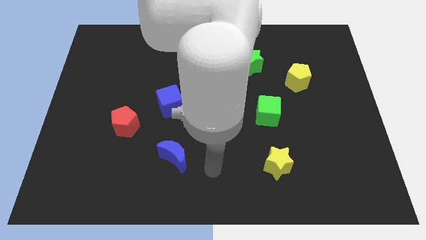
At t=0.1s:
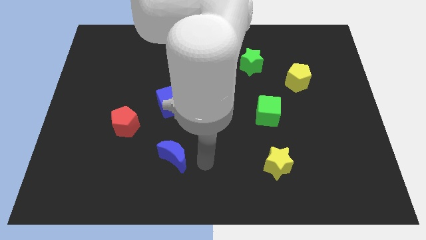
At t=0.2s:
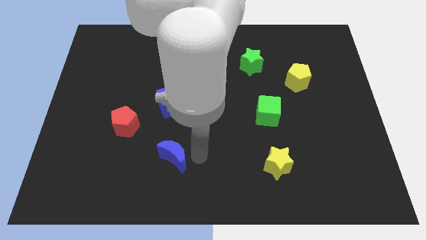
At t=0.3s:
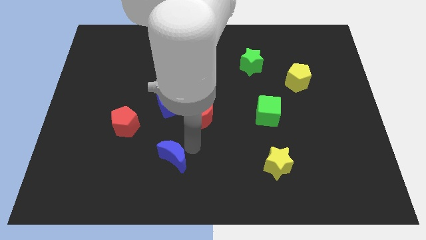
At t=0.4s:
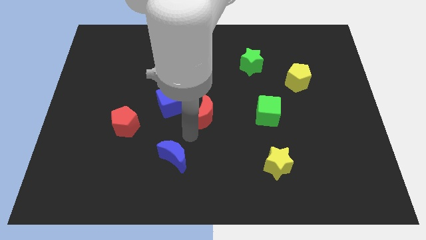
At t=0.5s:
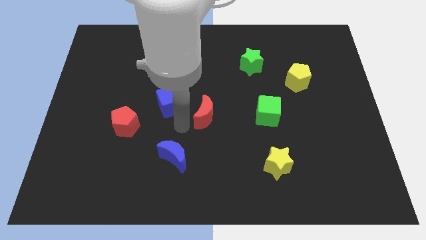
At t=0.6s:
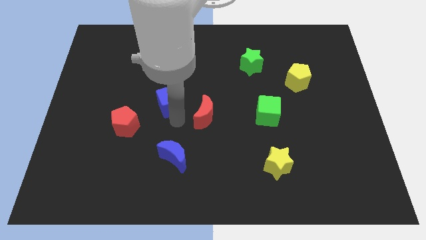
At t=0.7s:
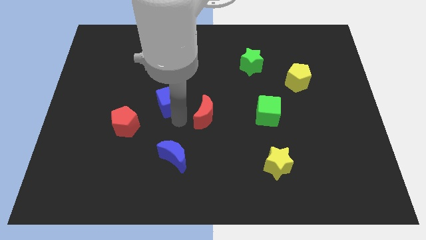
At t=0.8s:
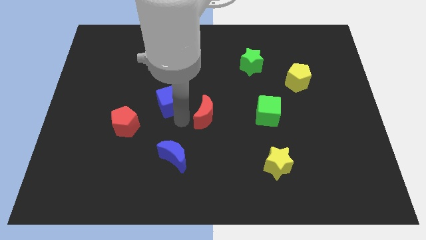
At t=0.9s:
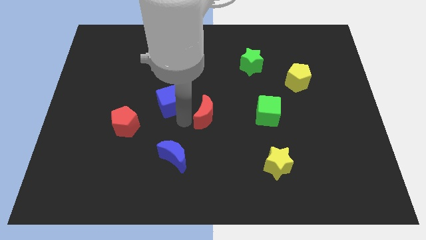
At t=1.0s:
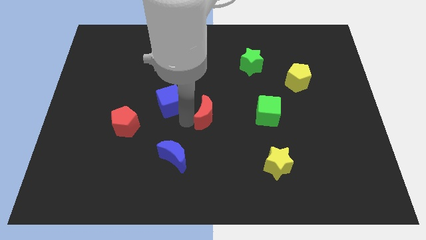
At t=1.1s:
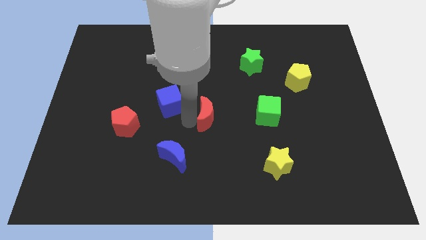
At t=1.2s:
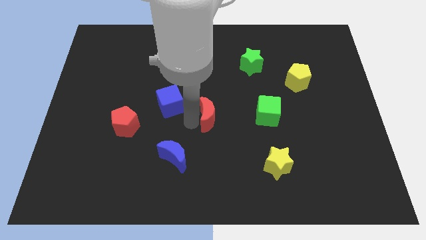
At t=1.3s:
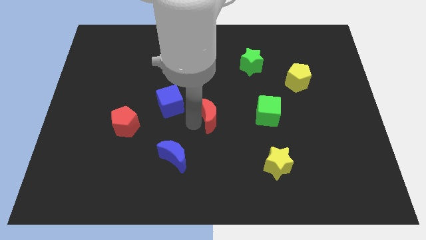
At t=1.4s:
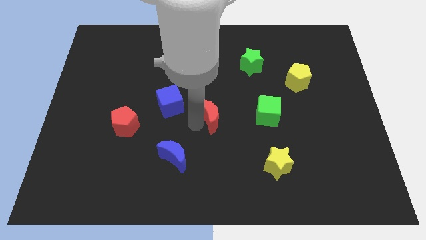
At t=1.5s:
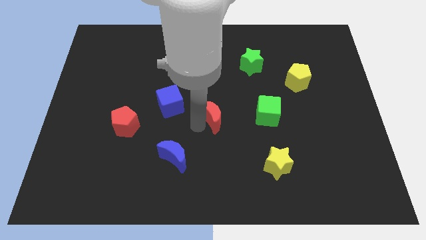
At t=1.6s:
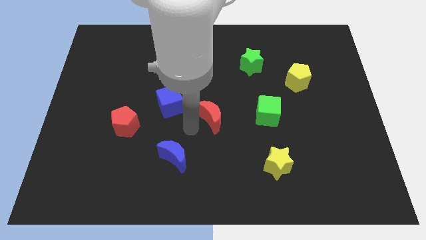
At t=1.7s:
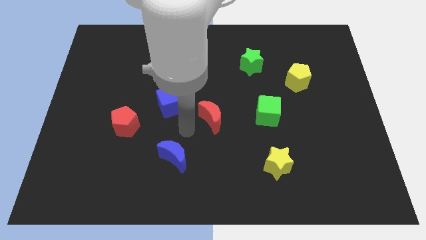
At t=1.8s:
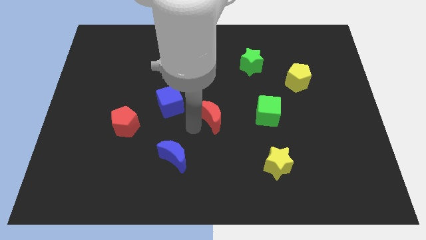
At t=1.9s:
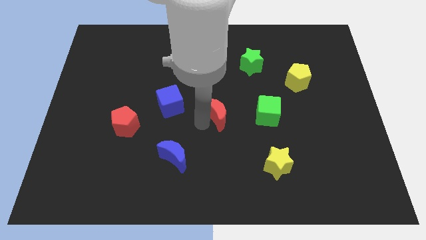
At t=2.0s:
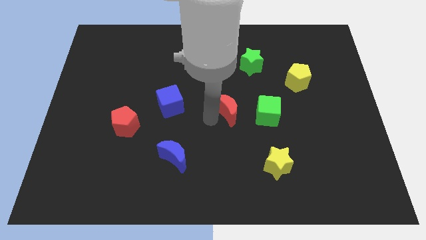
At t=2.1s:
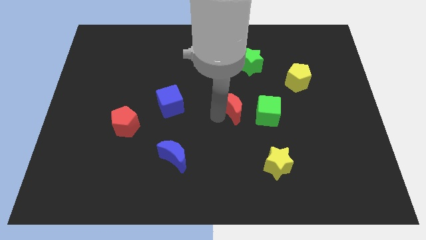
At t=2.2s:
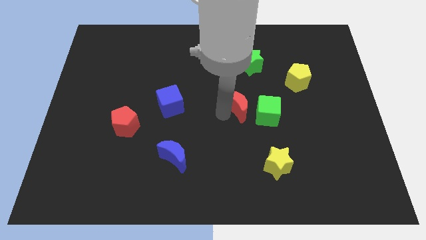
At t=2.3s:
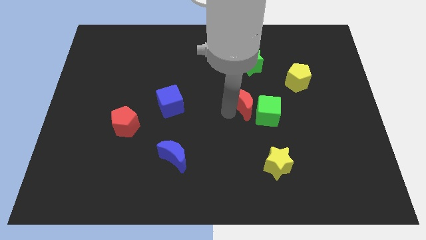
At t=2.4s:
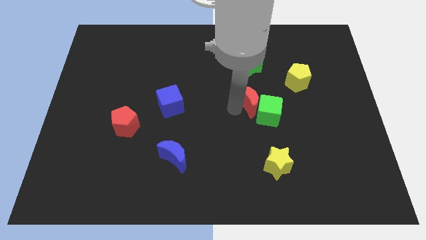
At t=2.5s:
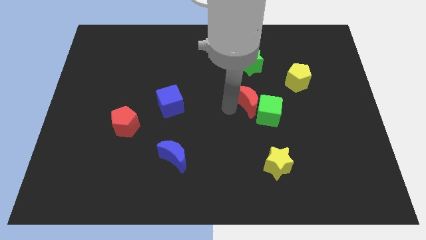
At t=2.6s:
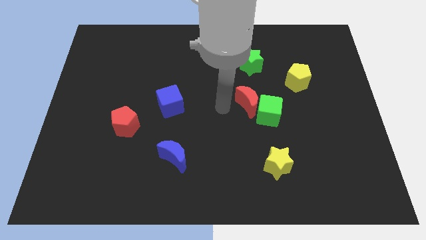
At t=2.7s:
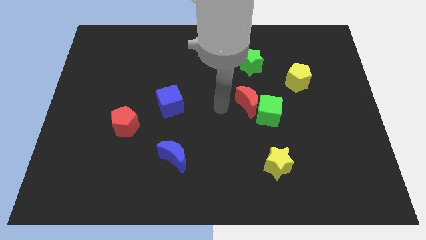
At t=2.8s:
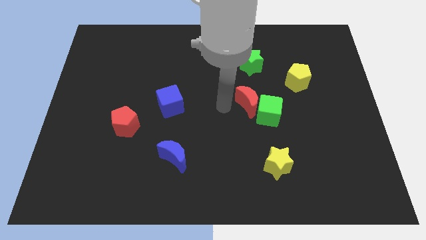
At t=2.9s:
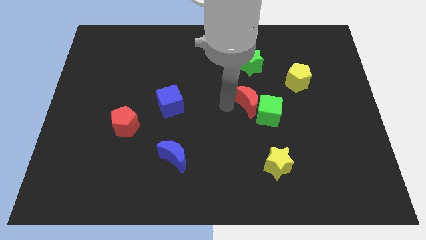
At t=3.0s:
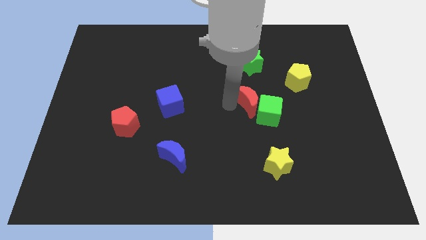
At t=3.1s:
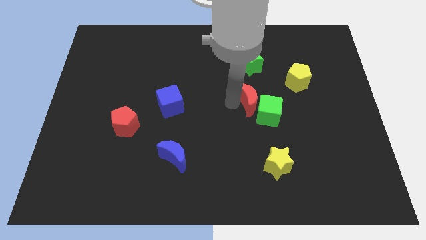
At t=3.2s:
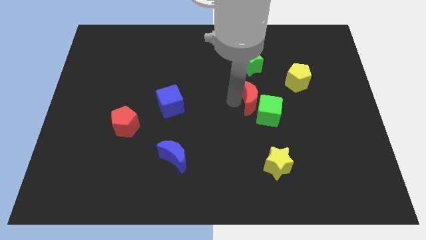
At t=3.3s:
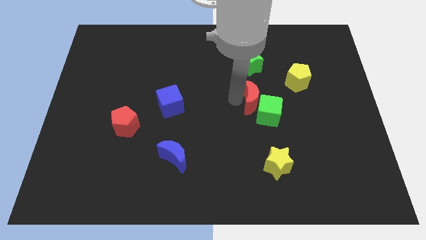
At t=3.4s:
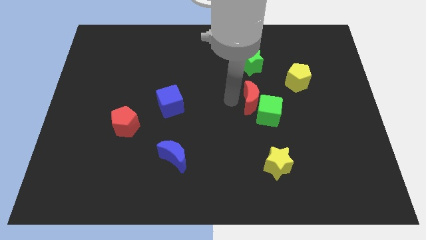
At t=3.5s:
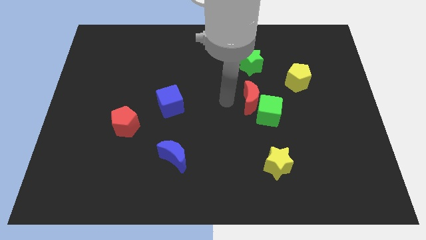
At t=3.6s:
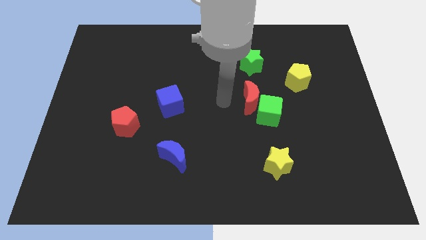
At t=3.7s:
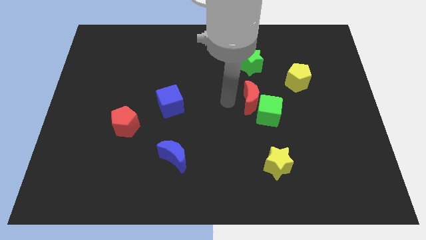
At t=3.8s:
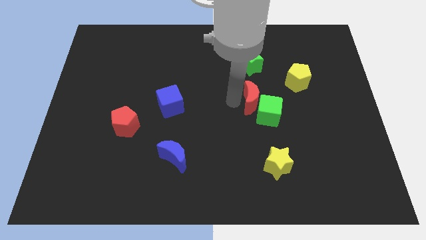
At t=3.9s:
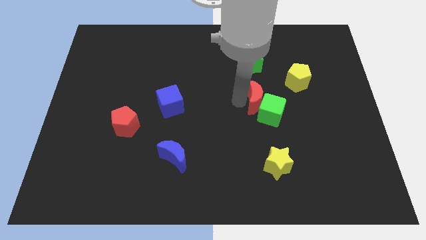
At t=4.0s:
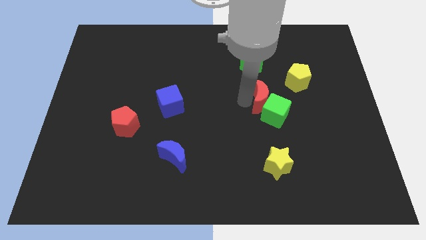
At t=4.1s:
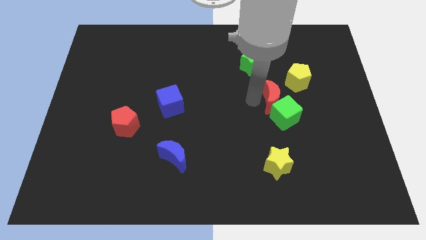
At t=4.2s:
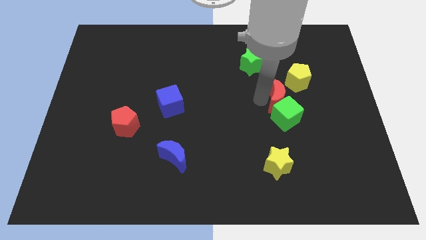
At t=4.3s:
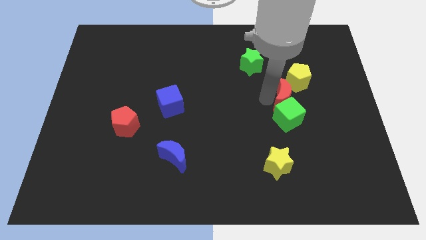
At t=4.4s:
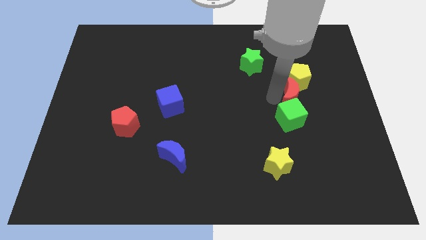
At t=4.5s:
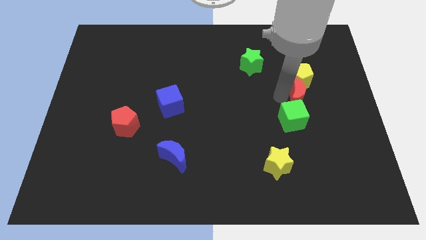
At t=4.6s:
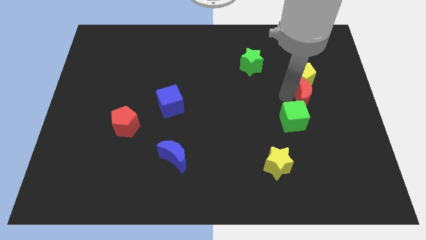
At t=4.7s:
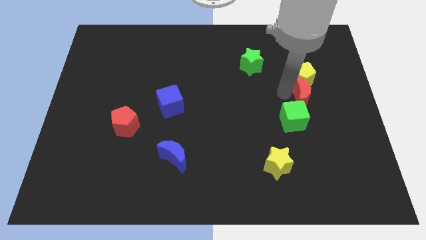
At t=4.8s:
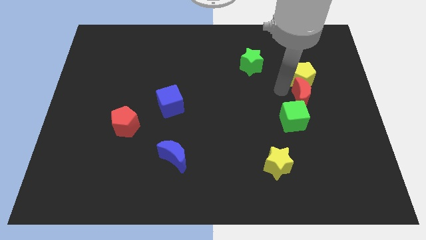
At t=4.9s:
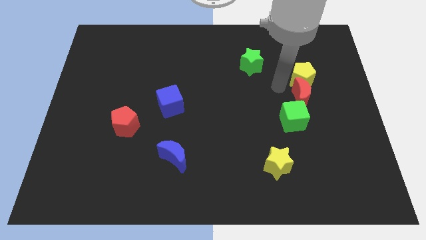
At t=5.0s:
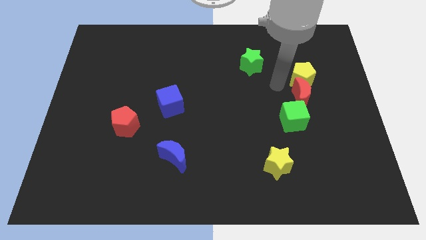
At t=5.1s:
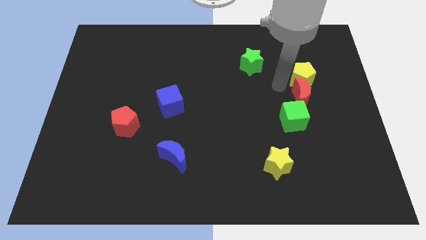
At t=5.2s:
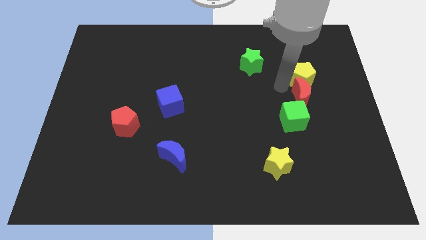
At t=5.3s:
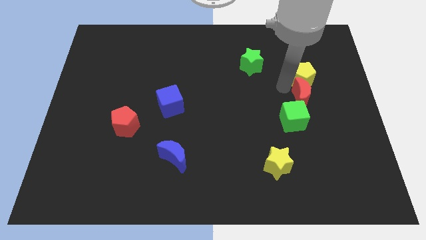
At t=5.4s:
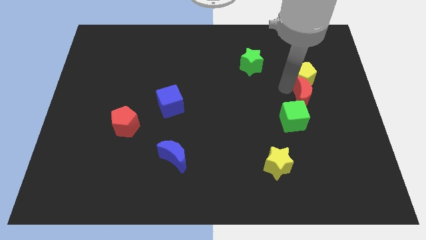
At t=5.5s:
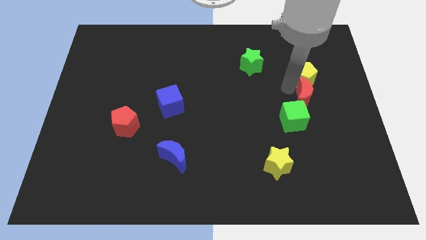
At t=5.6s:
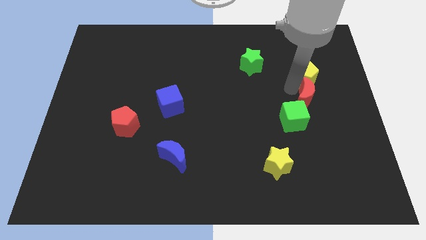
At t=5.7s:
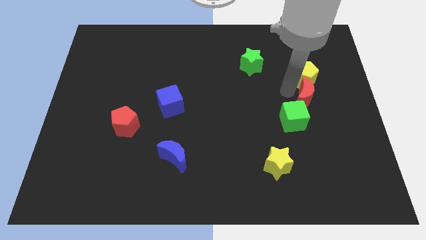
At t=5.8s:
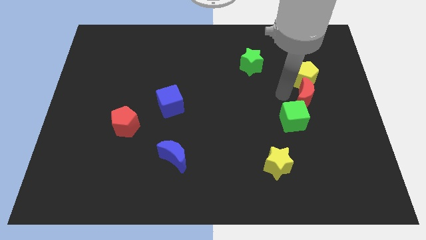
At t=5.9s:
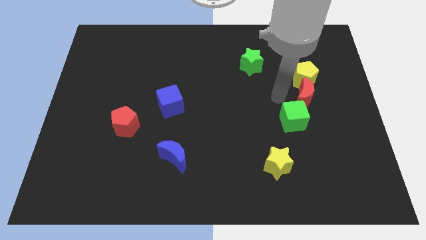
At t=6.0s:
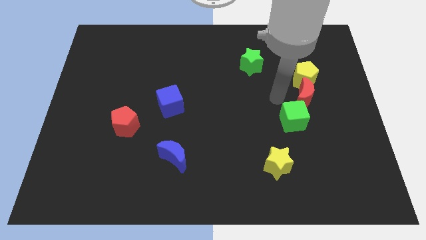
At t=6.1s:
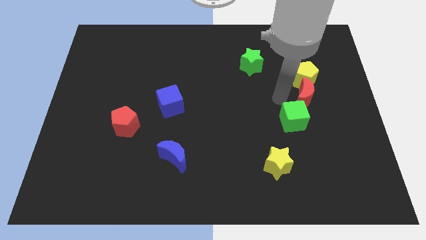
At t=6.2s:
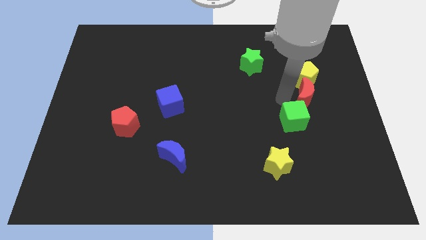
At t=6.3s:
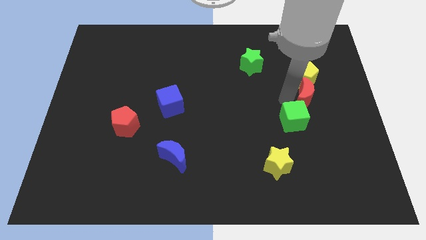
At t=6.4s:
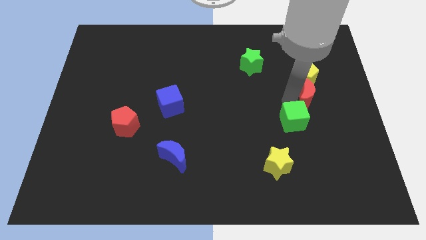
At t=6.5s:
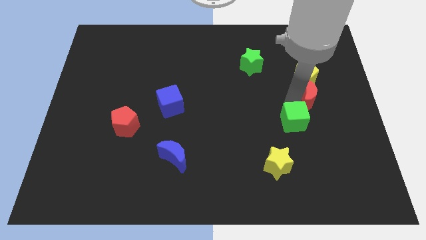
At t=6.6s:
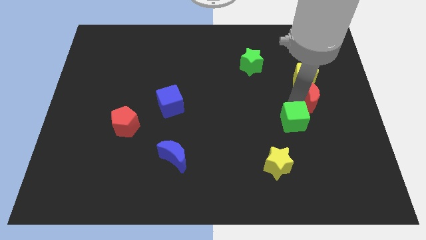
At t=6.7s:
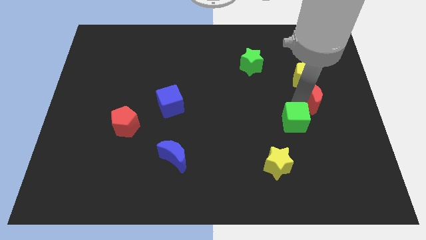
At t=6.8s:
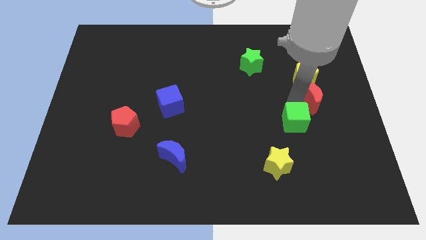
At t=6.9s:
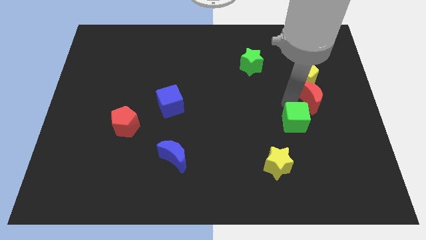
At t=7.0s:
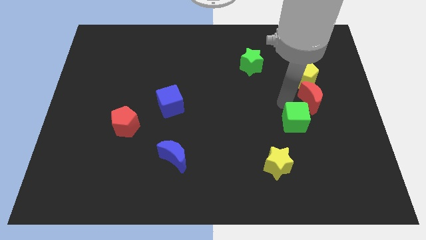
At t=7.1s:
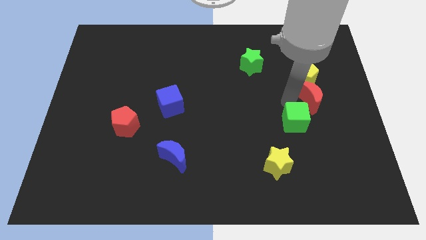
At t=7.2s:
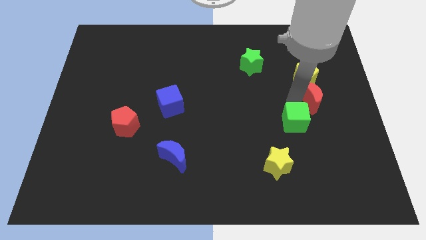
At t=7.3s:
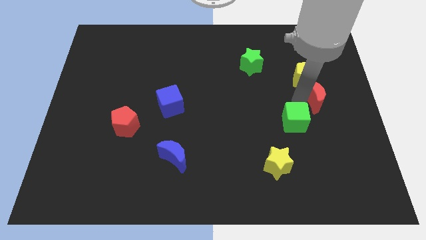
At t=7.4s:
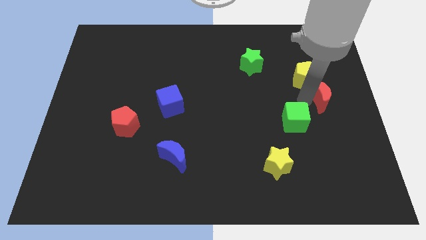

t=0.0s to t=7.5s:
slide the red moon to the right side
